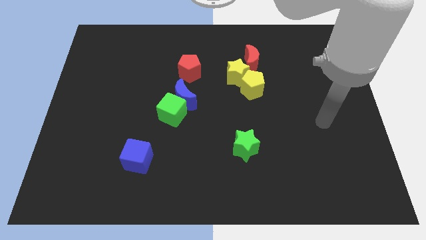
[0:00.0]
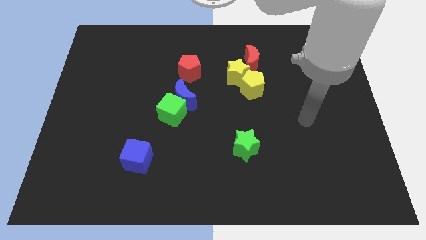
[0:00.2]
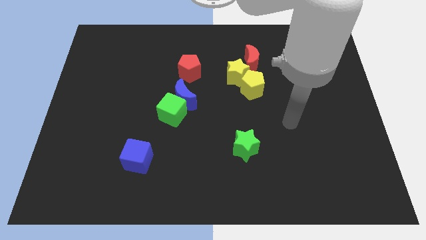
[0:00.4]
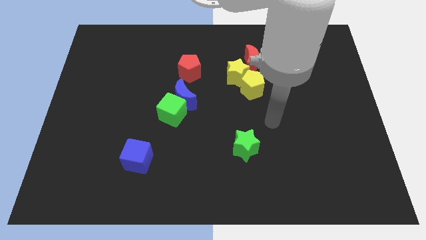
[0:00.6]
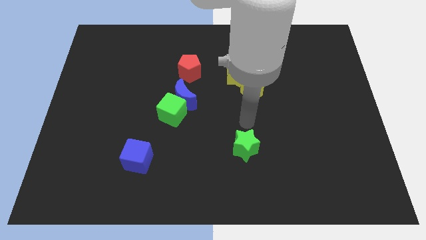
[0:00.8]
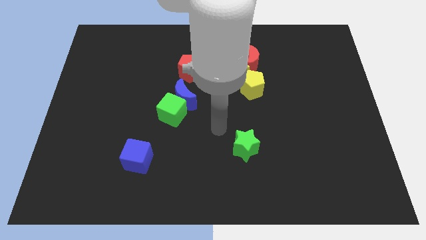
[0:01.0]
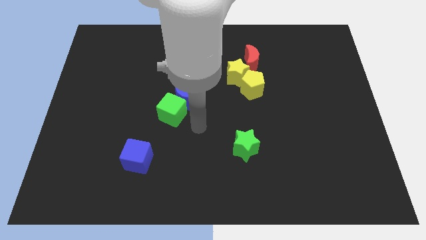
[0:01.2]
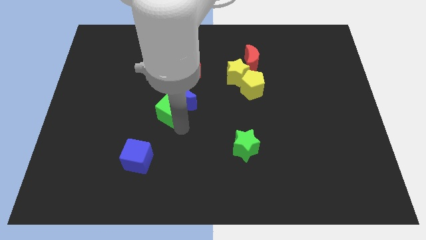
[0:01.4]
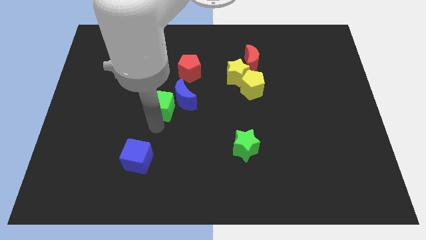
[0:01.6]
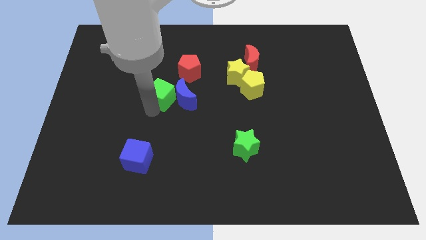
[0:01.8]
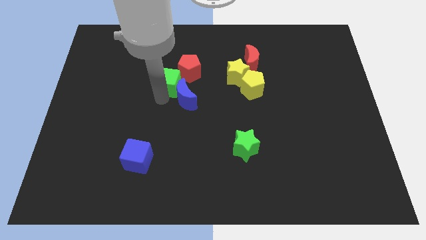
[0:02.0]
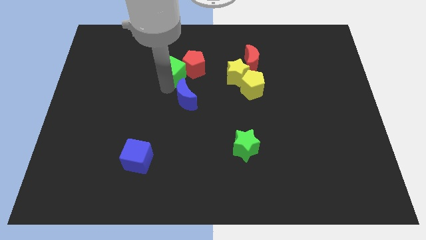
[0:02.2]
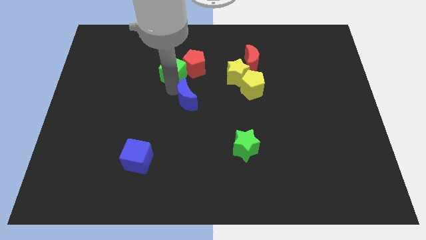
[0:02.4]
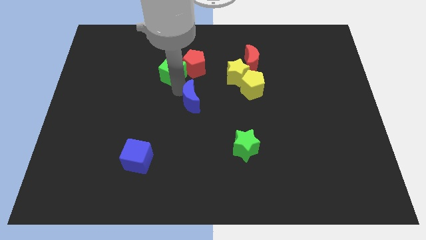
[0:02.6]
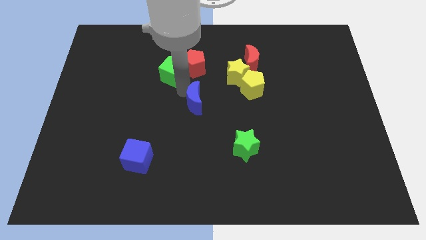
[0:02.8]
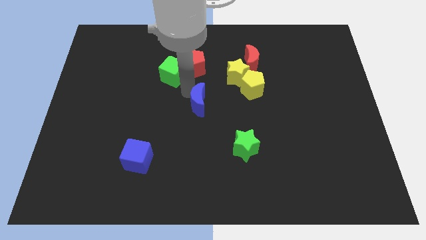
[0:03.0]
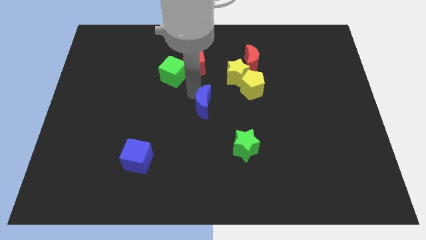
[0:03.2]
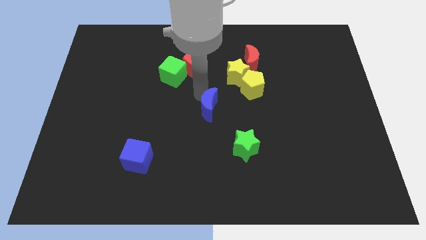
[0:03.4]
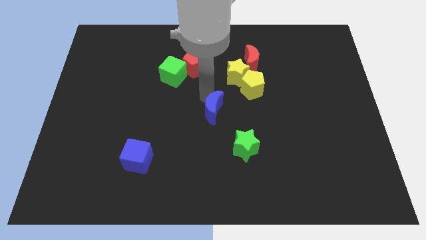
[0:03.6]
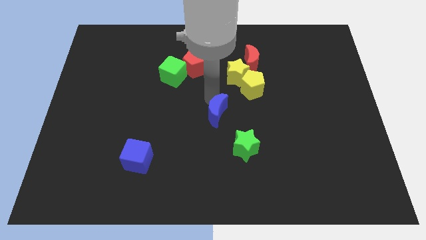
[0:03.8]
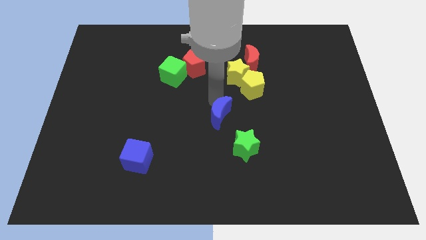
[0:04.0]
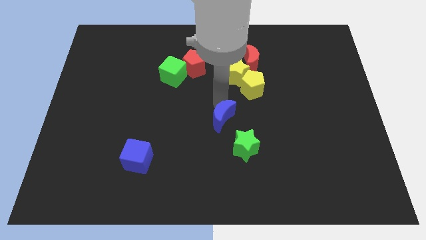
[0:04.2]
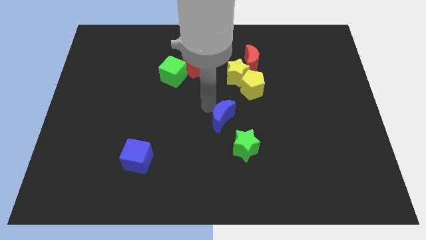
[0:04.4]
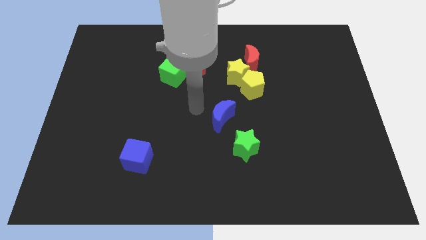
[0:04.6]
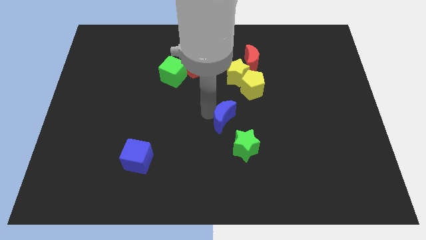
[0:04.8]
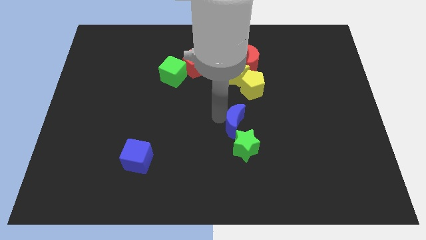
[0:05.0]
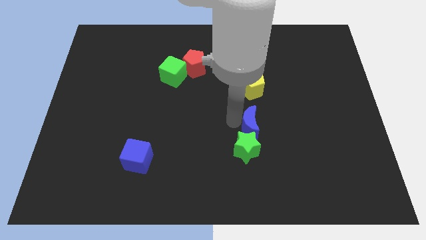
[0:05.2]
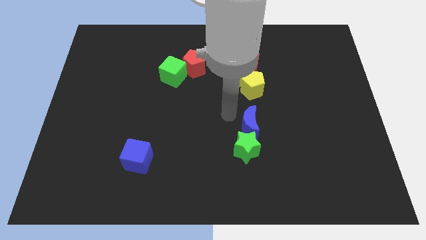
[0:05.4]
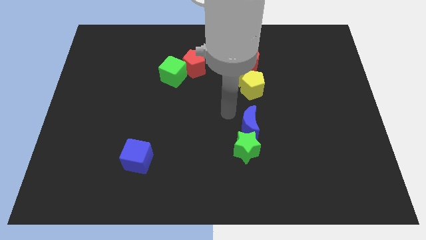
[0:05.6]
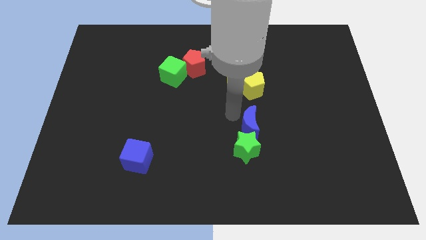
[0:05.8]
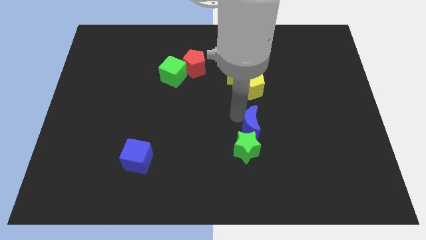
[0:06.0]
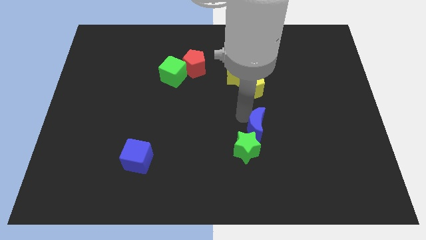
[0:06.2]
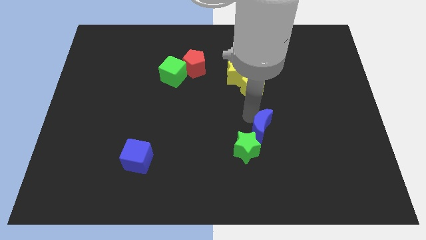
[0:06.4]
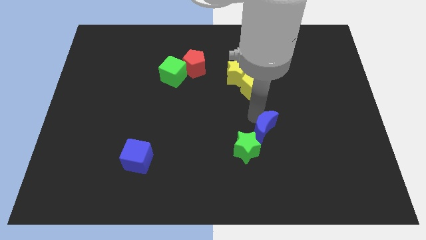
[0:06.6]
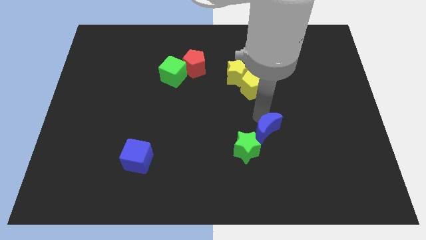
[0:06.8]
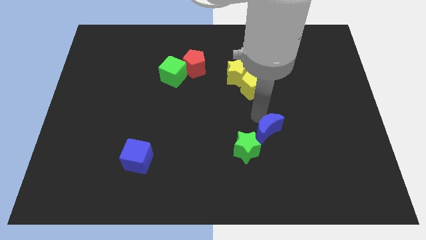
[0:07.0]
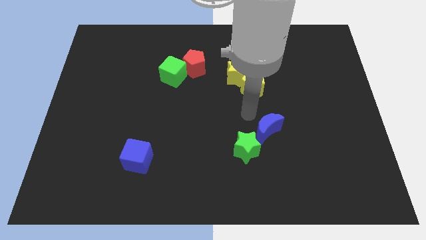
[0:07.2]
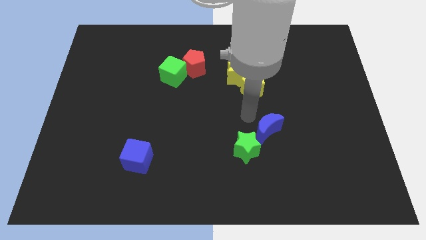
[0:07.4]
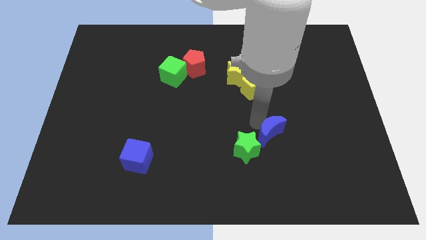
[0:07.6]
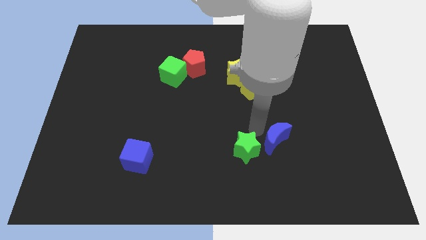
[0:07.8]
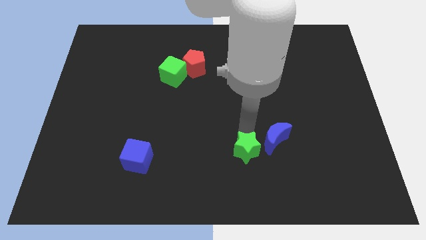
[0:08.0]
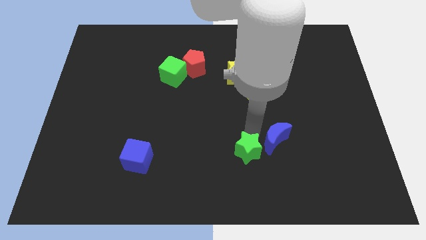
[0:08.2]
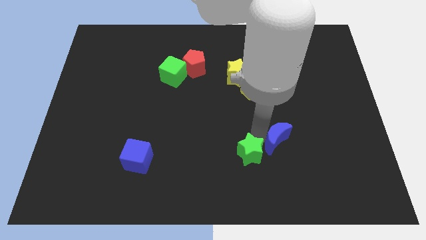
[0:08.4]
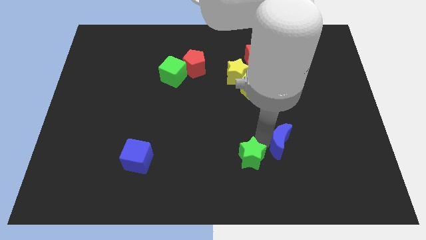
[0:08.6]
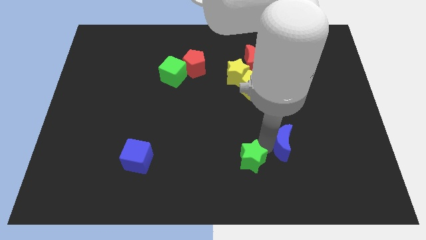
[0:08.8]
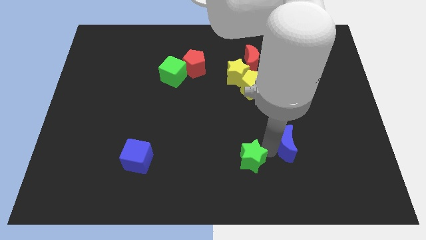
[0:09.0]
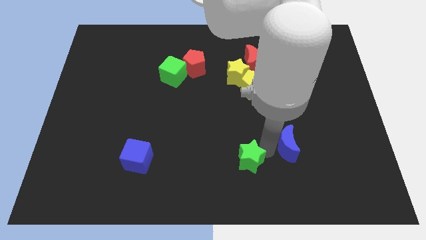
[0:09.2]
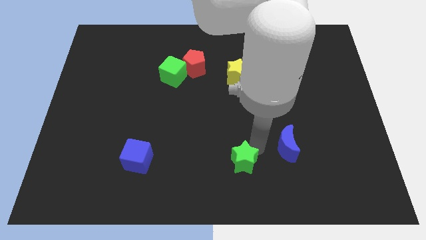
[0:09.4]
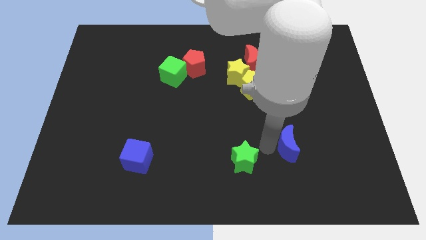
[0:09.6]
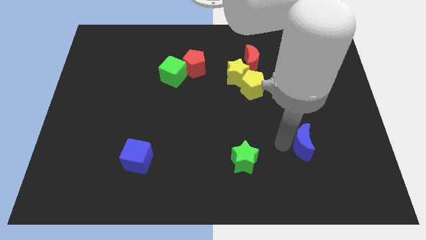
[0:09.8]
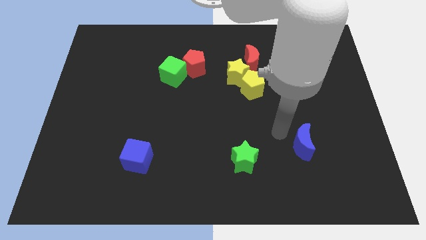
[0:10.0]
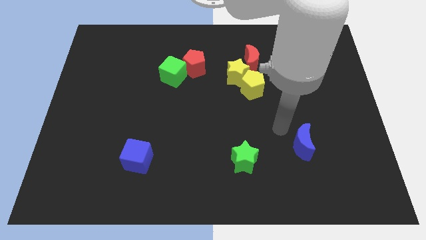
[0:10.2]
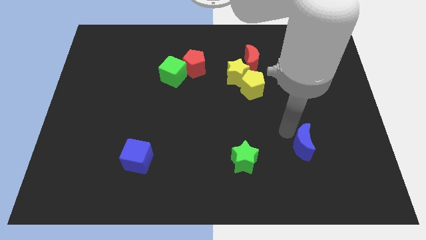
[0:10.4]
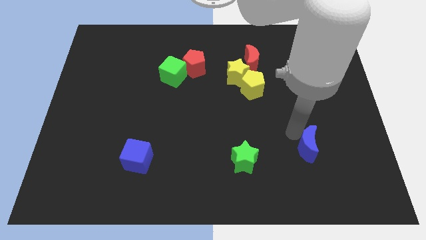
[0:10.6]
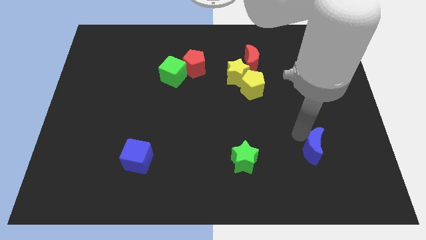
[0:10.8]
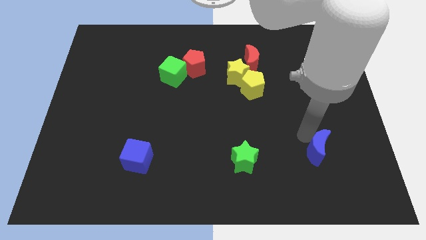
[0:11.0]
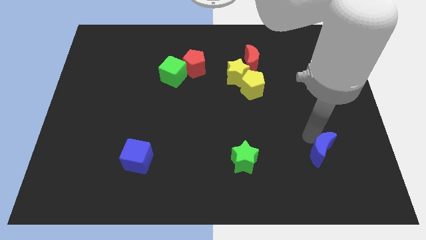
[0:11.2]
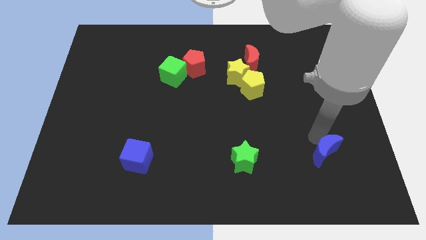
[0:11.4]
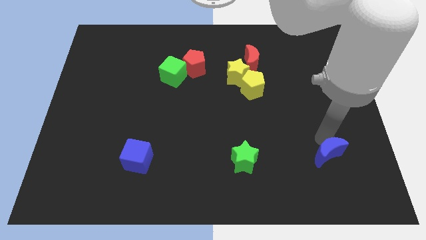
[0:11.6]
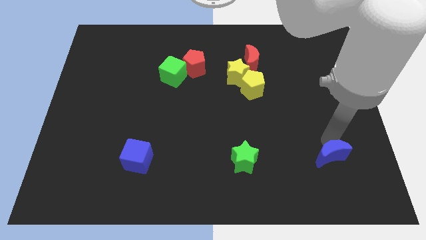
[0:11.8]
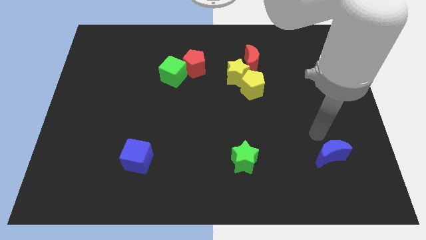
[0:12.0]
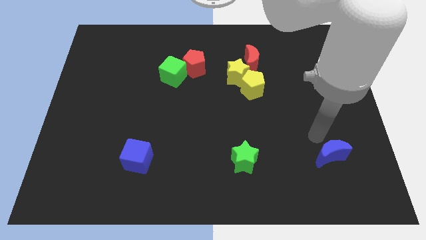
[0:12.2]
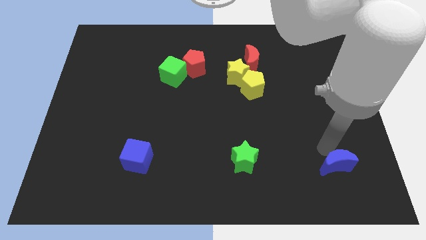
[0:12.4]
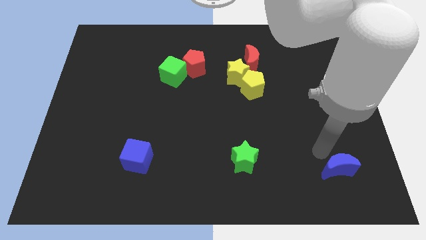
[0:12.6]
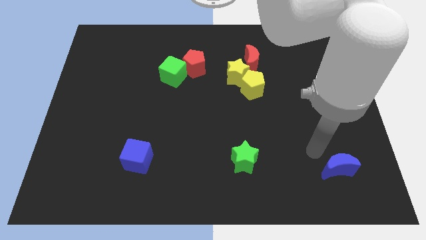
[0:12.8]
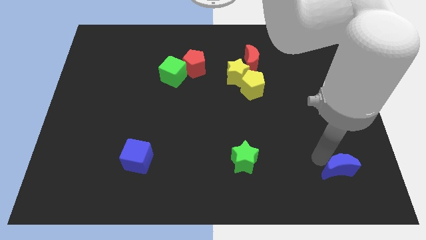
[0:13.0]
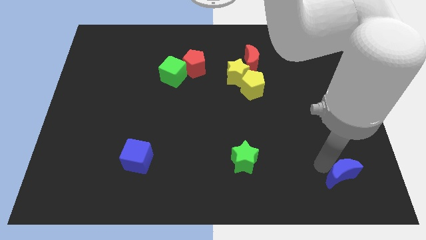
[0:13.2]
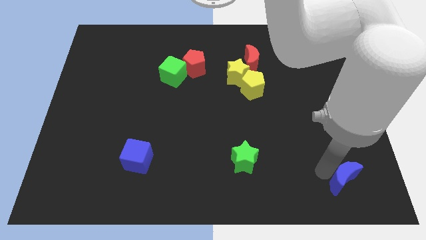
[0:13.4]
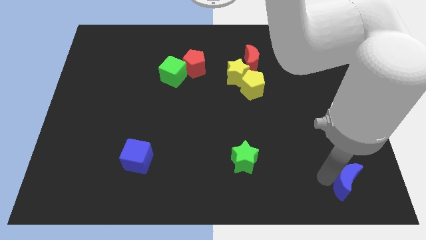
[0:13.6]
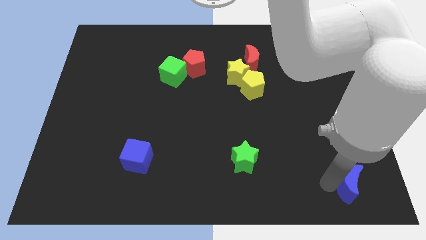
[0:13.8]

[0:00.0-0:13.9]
push the blue moon to the bottom right corner
